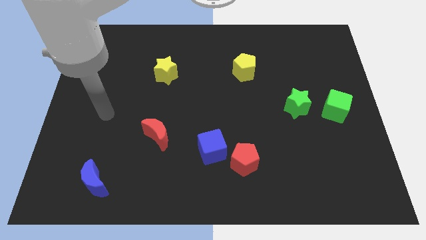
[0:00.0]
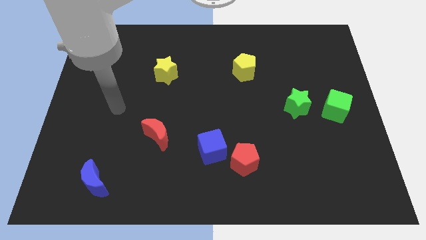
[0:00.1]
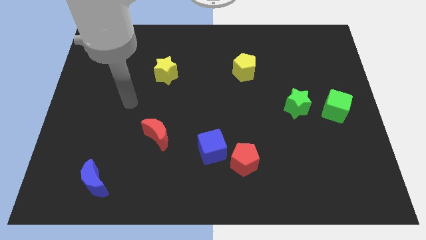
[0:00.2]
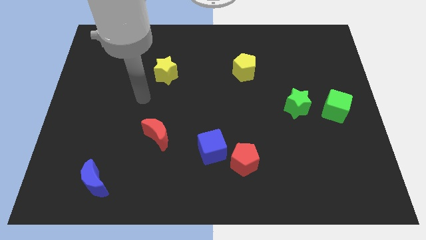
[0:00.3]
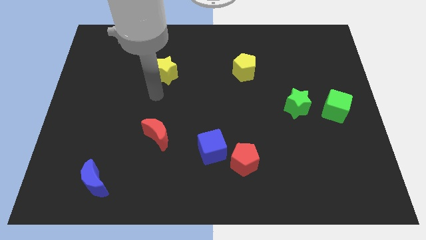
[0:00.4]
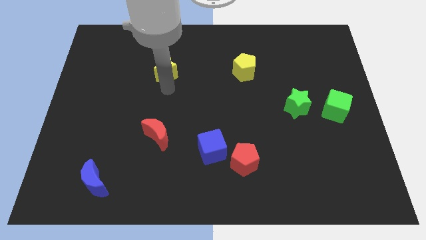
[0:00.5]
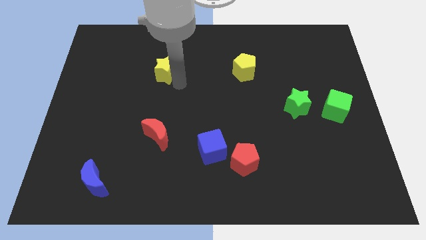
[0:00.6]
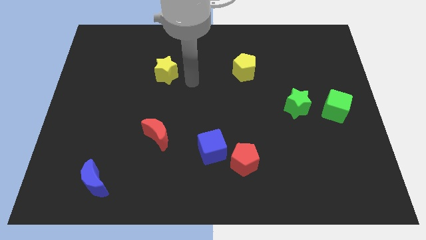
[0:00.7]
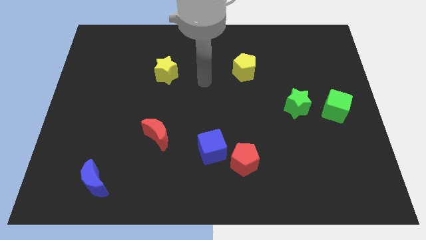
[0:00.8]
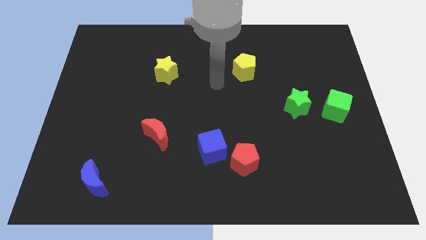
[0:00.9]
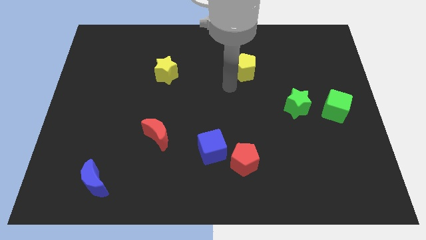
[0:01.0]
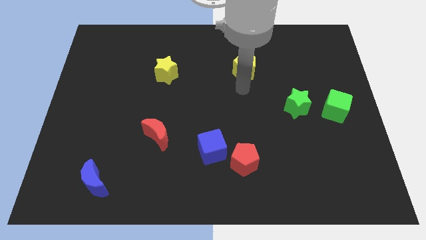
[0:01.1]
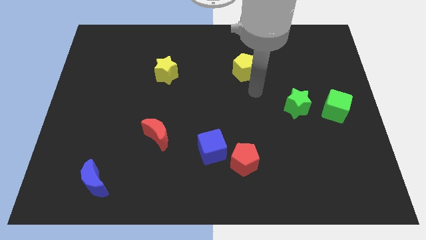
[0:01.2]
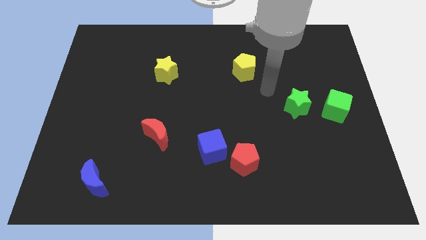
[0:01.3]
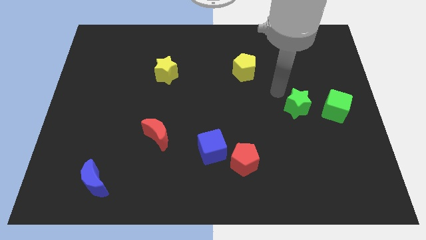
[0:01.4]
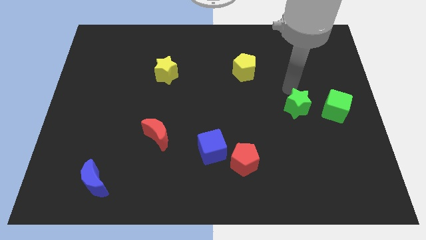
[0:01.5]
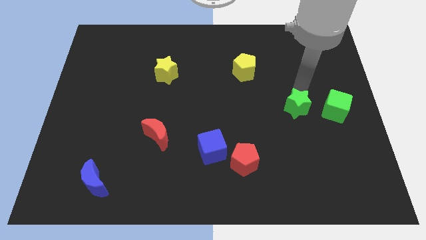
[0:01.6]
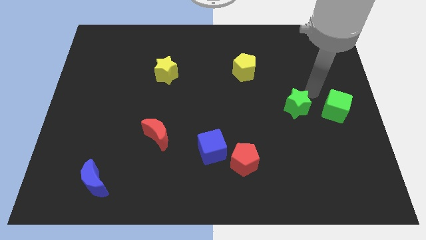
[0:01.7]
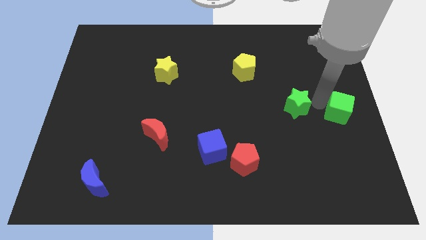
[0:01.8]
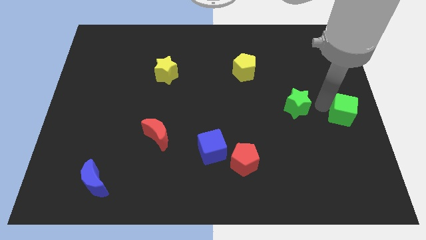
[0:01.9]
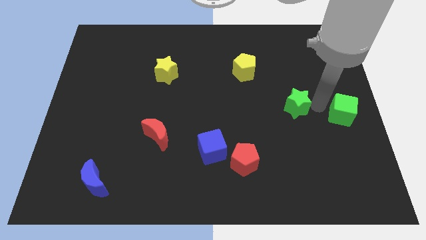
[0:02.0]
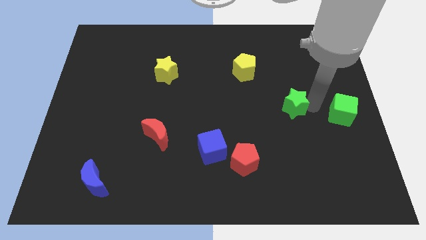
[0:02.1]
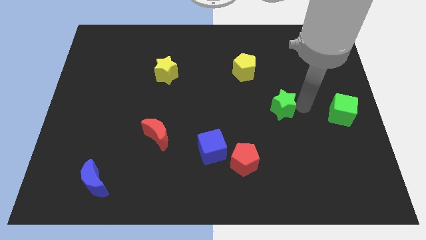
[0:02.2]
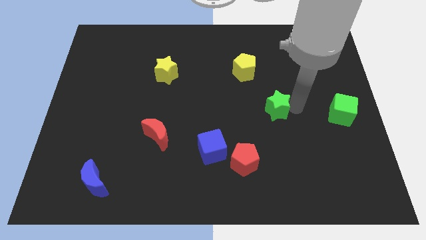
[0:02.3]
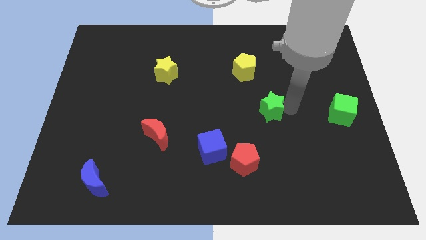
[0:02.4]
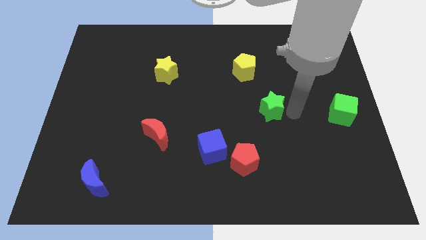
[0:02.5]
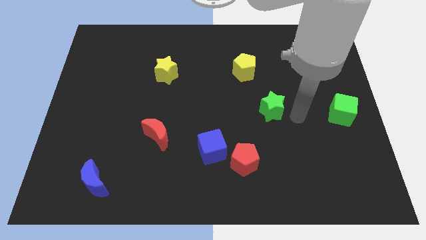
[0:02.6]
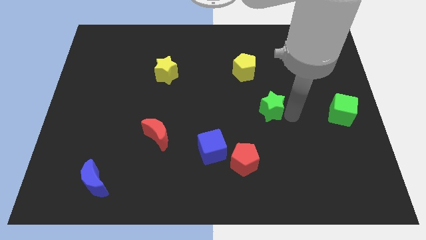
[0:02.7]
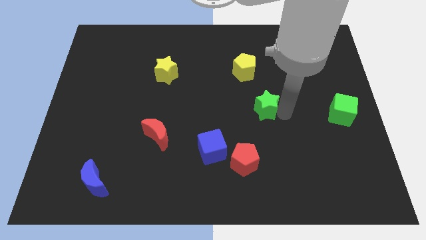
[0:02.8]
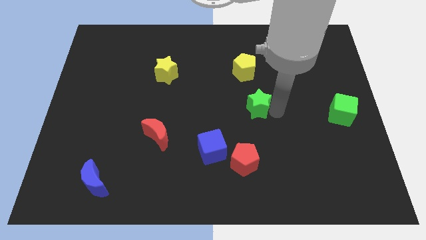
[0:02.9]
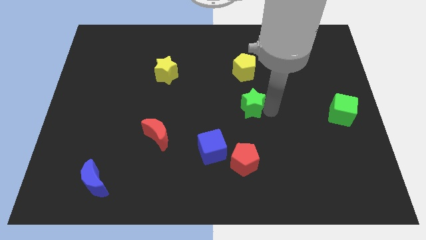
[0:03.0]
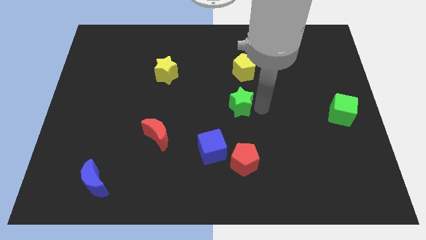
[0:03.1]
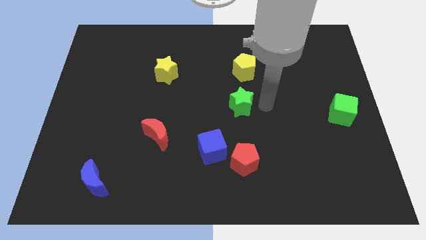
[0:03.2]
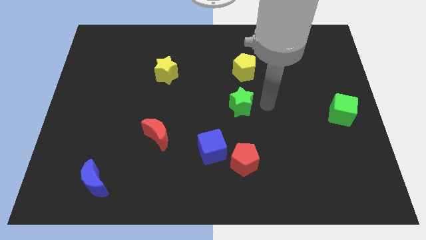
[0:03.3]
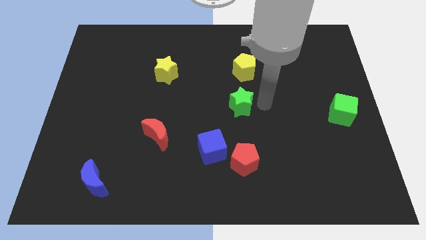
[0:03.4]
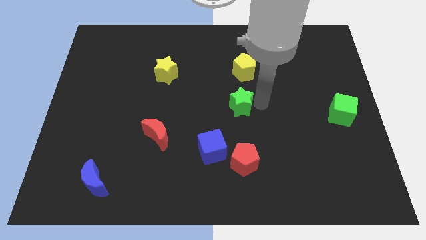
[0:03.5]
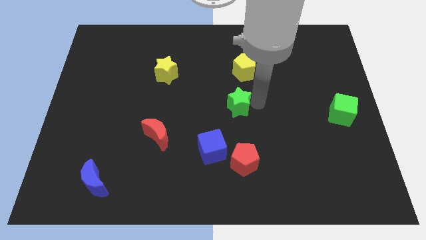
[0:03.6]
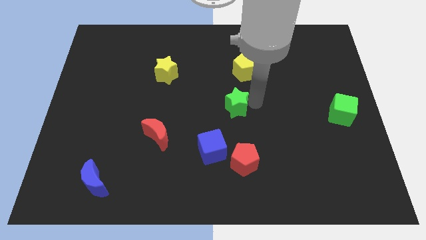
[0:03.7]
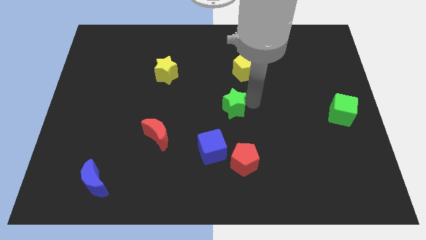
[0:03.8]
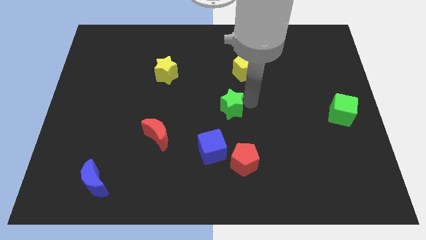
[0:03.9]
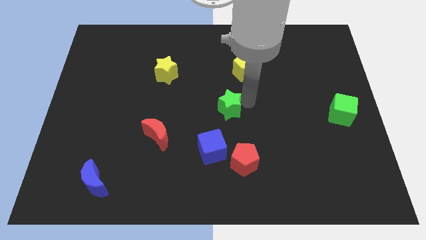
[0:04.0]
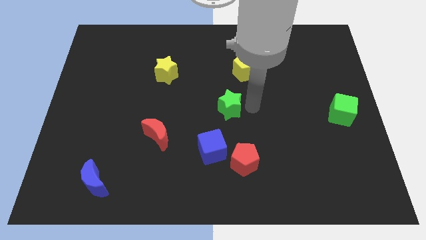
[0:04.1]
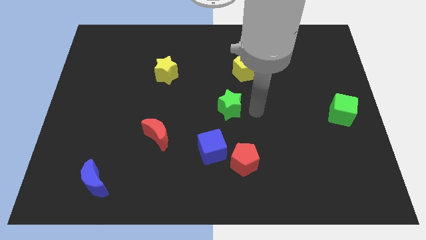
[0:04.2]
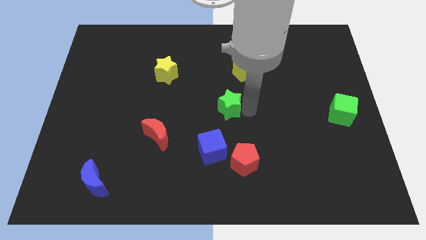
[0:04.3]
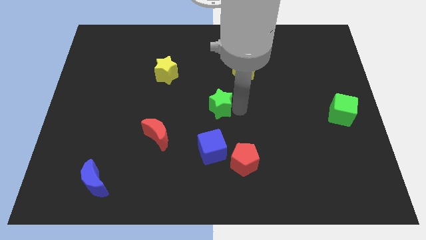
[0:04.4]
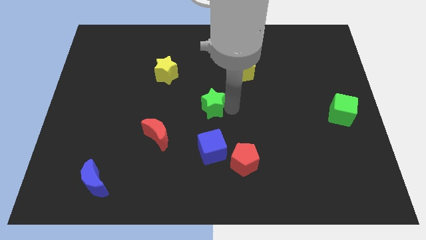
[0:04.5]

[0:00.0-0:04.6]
move the green star left

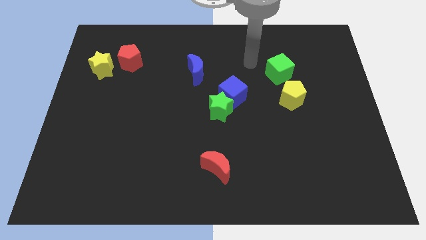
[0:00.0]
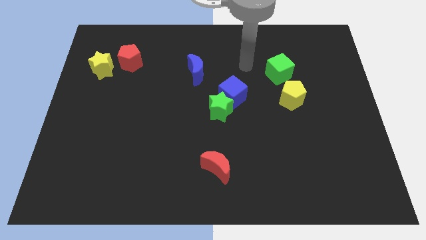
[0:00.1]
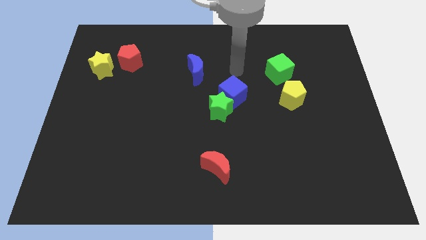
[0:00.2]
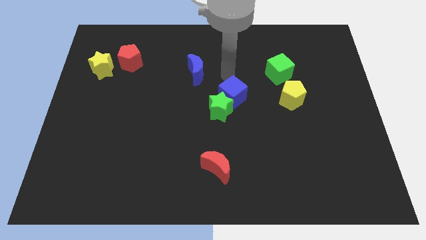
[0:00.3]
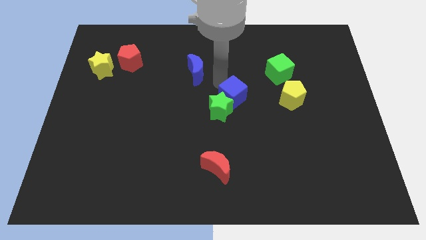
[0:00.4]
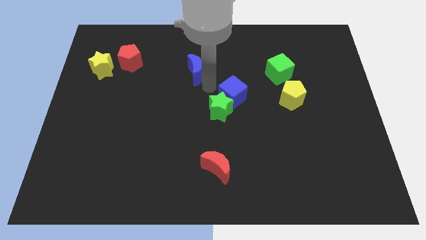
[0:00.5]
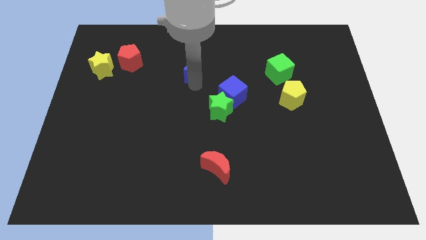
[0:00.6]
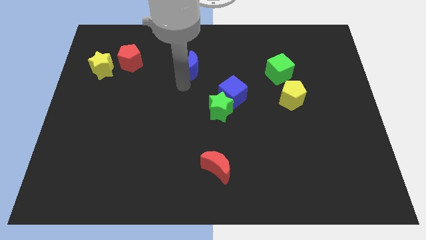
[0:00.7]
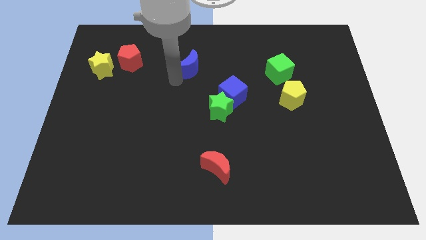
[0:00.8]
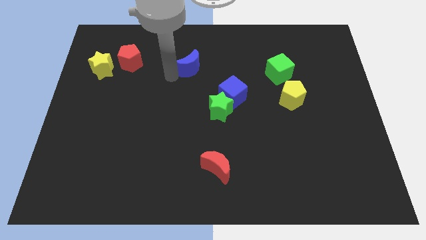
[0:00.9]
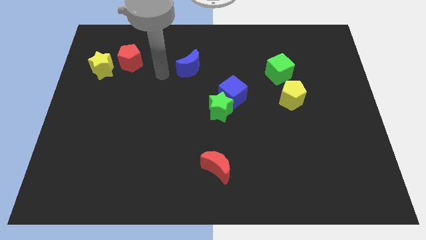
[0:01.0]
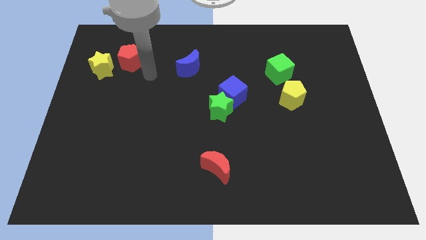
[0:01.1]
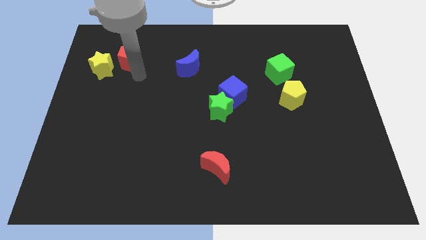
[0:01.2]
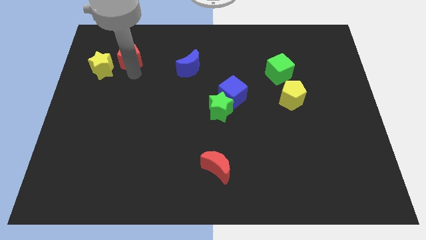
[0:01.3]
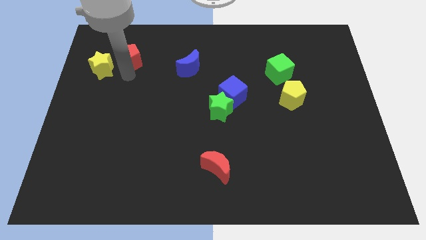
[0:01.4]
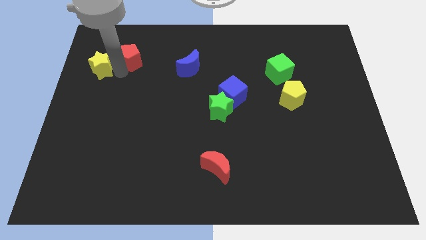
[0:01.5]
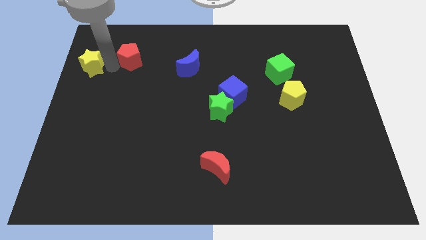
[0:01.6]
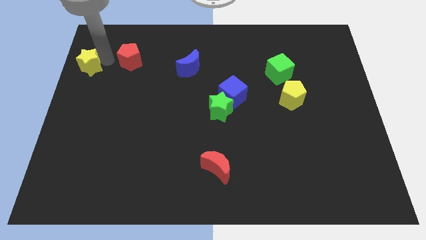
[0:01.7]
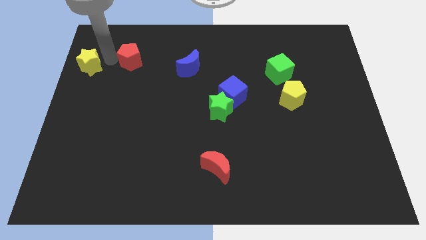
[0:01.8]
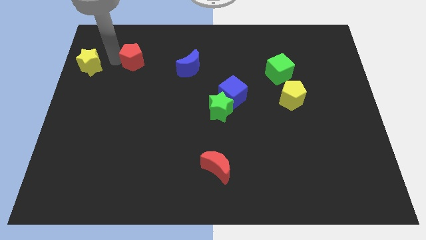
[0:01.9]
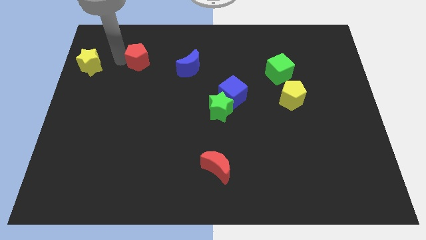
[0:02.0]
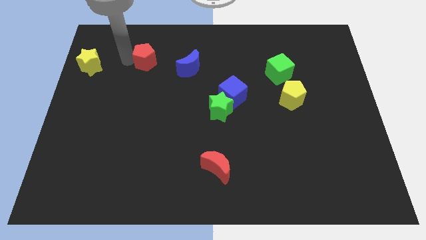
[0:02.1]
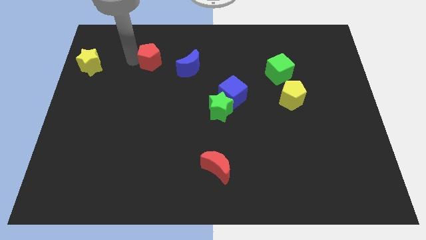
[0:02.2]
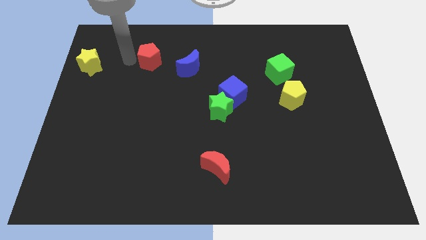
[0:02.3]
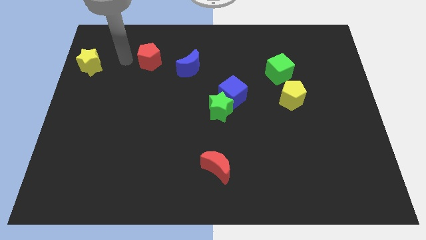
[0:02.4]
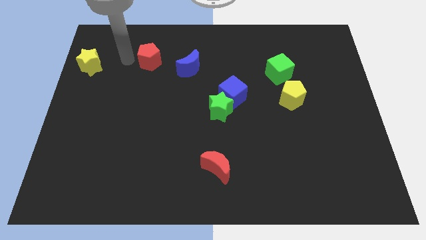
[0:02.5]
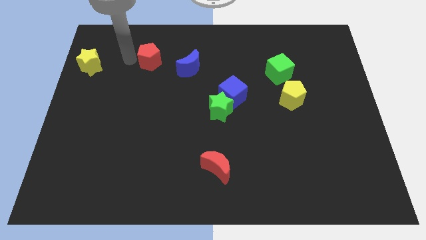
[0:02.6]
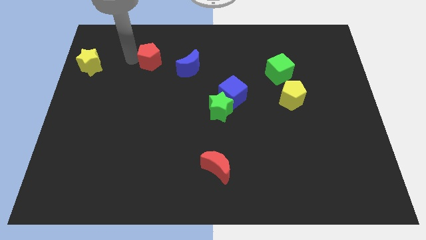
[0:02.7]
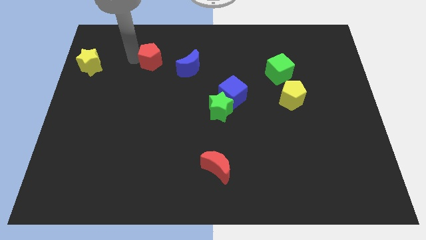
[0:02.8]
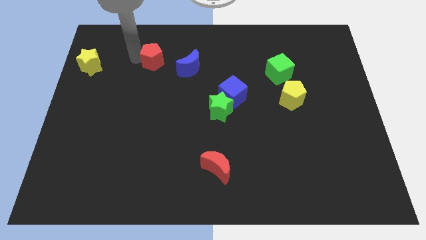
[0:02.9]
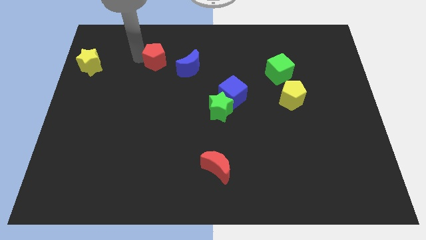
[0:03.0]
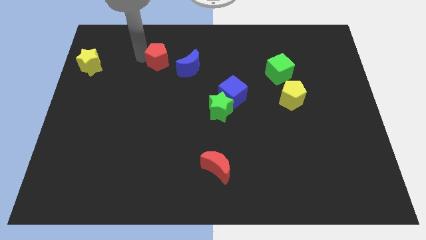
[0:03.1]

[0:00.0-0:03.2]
slightly slide the red pentagon to the right
